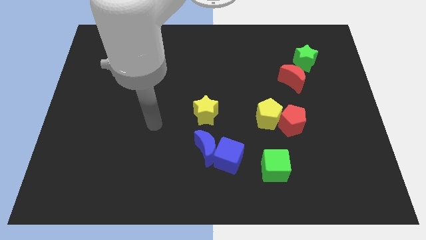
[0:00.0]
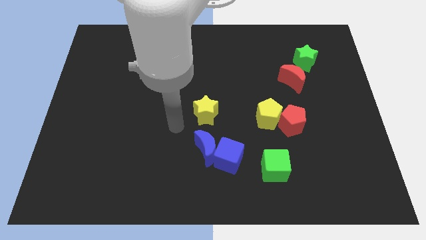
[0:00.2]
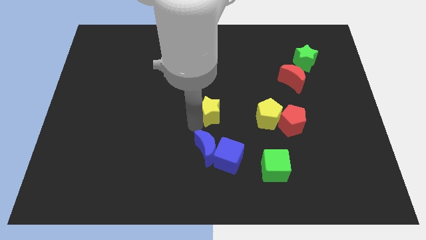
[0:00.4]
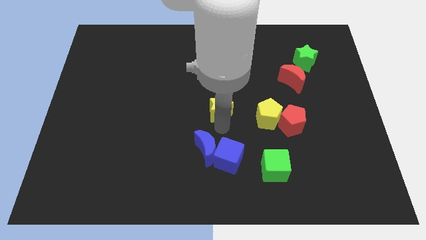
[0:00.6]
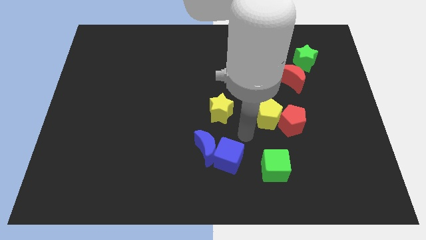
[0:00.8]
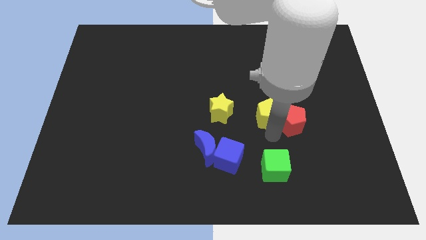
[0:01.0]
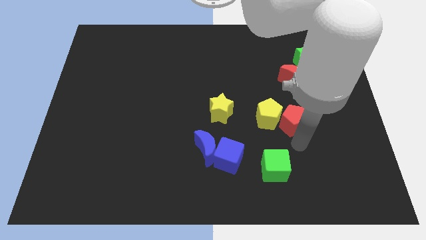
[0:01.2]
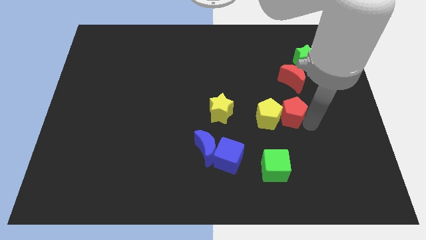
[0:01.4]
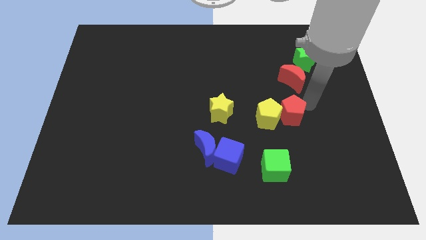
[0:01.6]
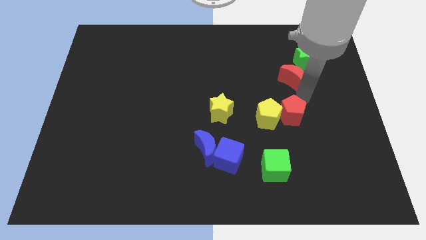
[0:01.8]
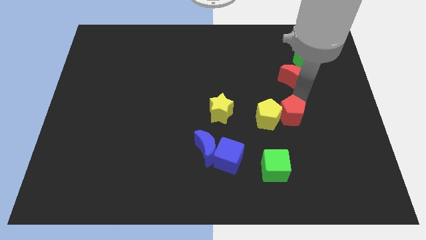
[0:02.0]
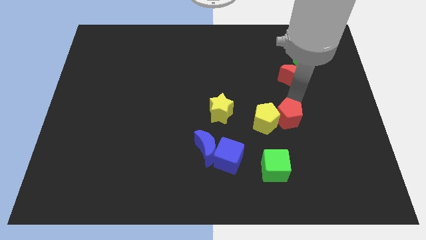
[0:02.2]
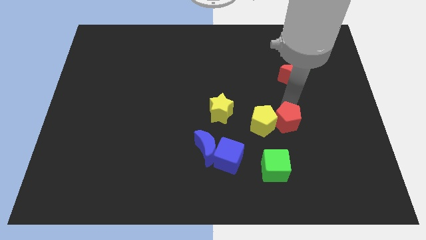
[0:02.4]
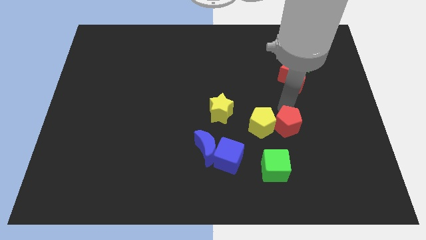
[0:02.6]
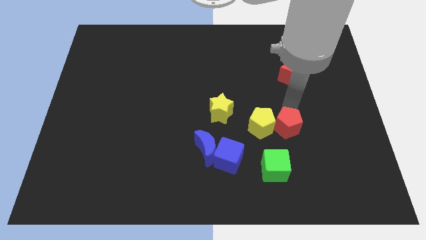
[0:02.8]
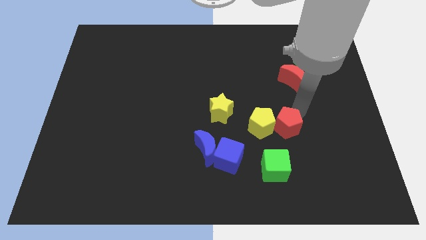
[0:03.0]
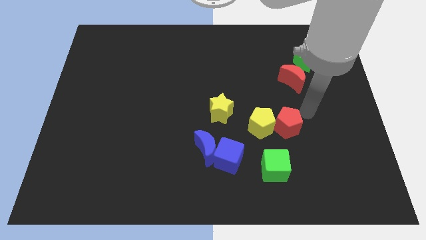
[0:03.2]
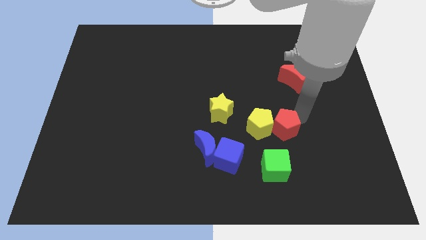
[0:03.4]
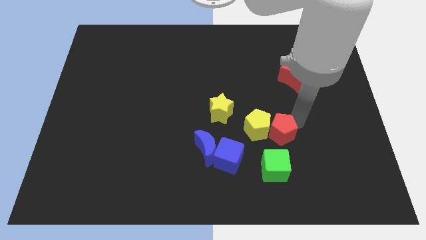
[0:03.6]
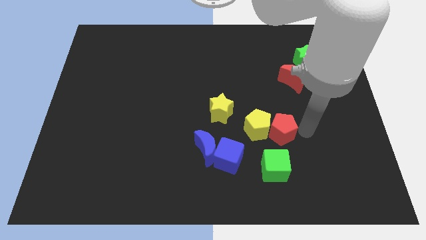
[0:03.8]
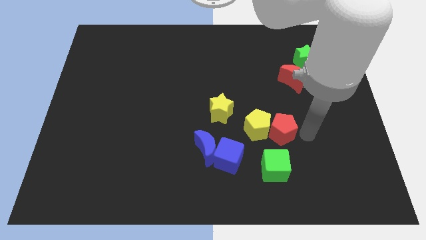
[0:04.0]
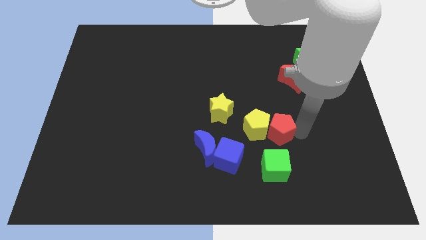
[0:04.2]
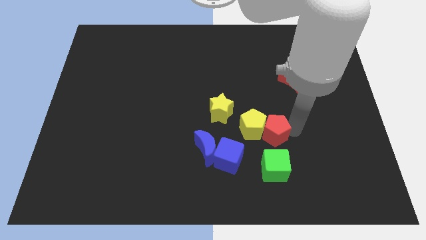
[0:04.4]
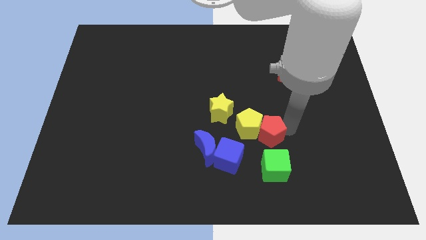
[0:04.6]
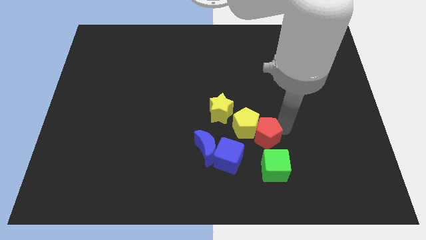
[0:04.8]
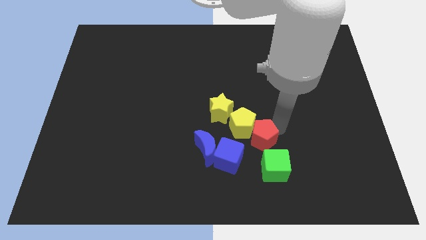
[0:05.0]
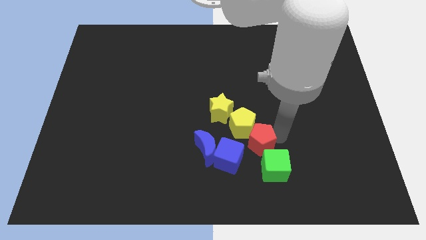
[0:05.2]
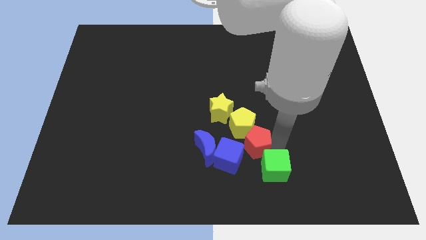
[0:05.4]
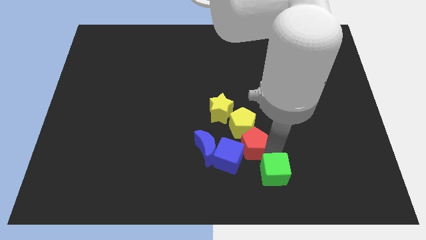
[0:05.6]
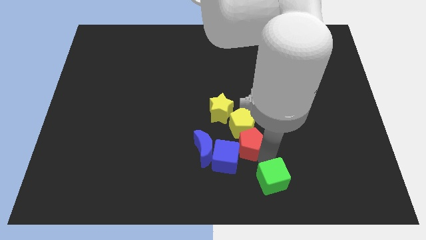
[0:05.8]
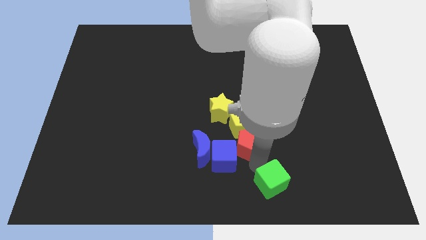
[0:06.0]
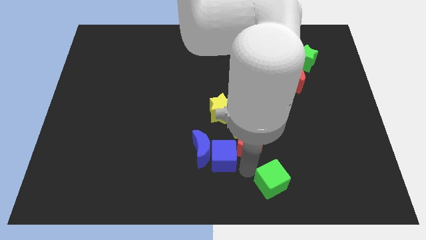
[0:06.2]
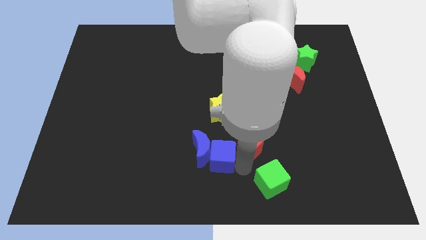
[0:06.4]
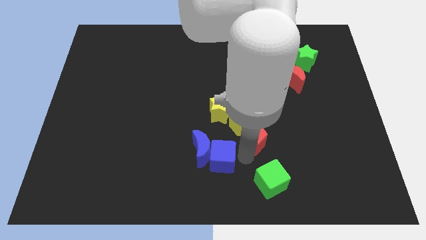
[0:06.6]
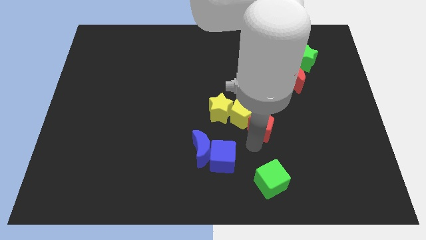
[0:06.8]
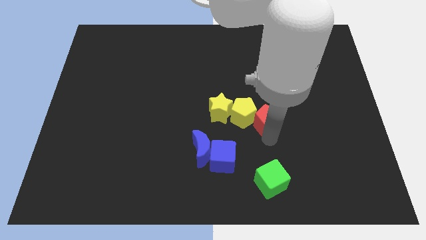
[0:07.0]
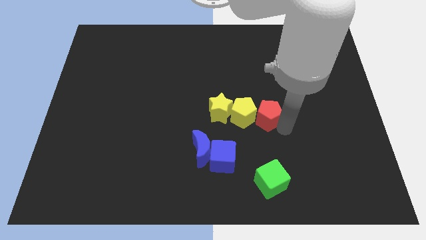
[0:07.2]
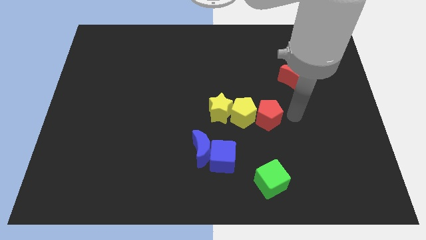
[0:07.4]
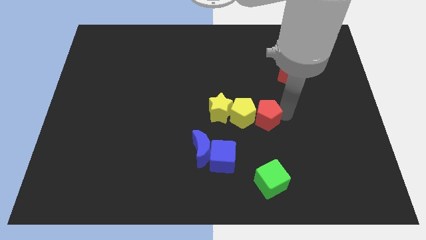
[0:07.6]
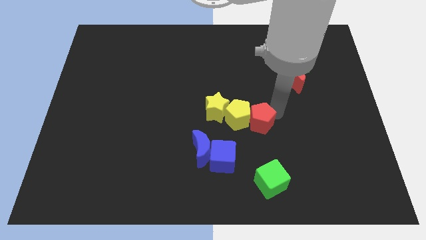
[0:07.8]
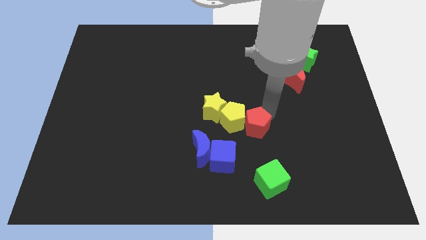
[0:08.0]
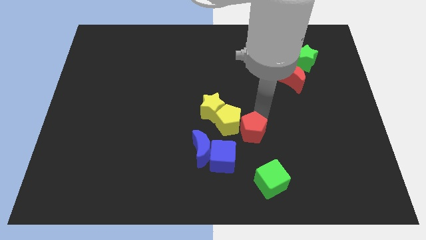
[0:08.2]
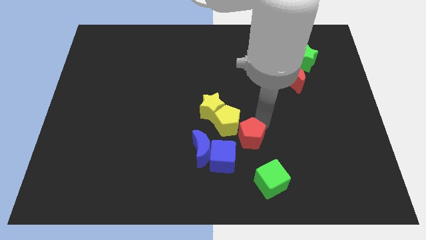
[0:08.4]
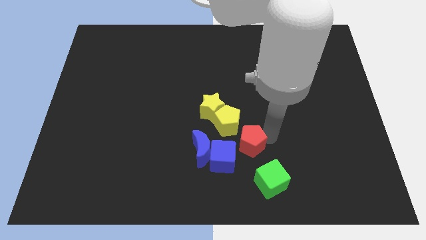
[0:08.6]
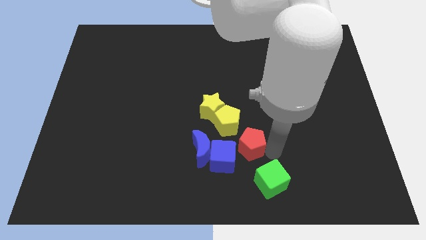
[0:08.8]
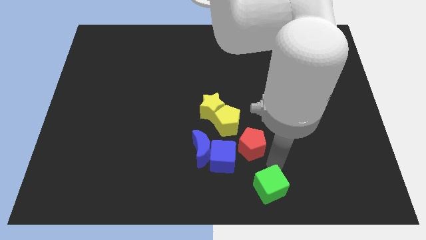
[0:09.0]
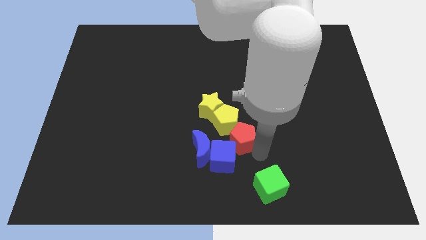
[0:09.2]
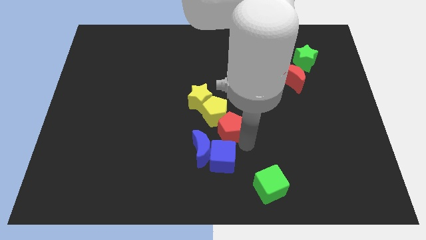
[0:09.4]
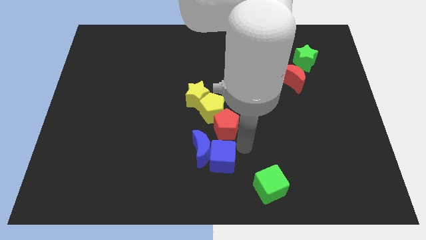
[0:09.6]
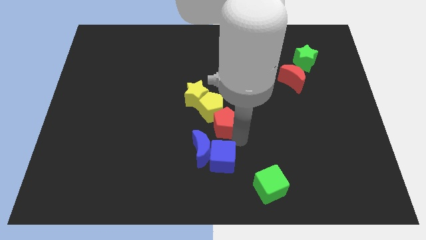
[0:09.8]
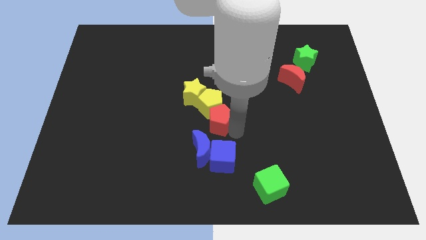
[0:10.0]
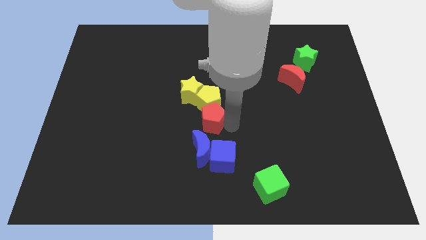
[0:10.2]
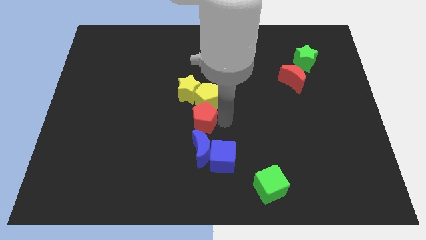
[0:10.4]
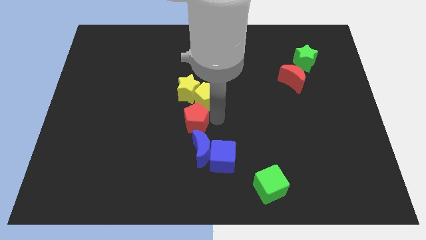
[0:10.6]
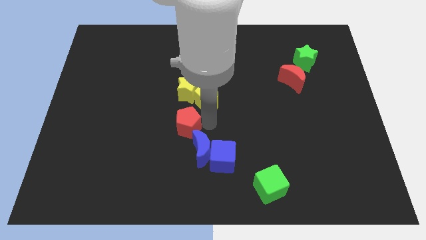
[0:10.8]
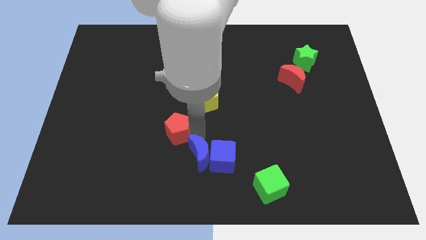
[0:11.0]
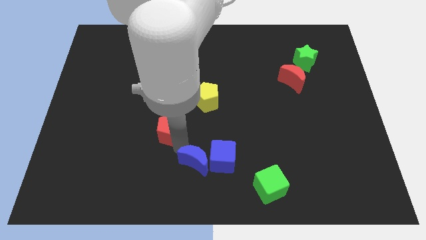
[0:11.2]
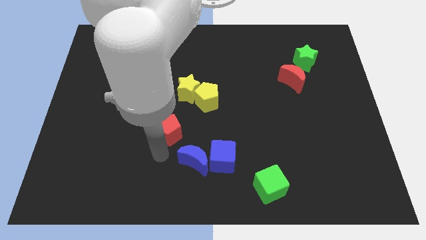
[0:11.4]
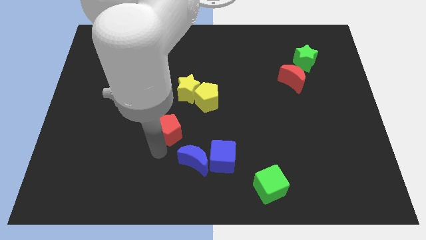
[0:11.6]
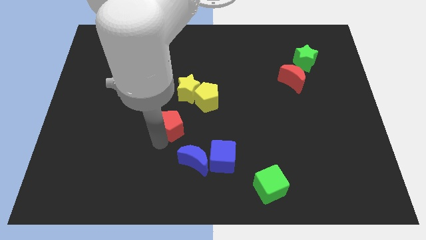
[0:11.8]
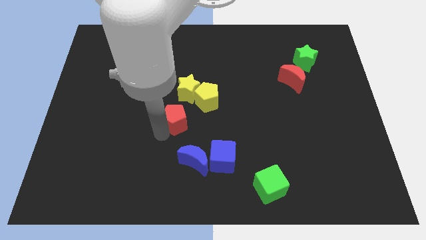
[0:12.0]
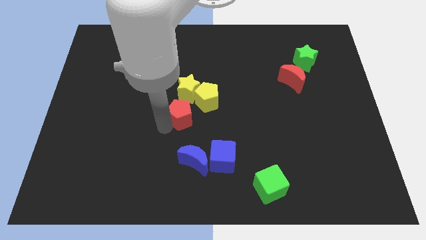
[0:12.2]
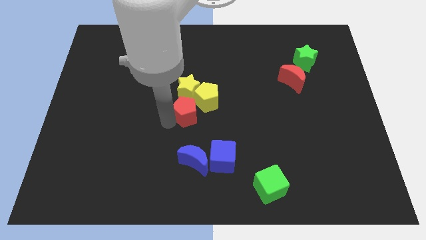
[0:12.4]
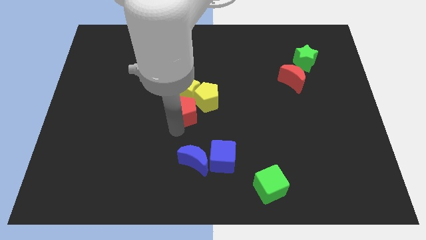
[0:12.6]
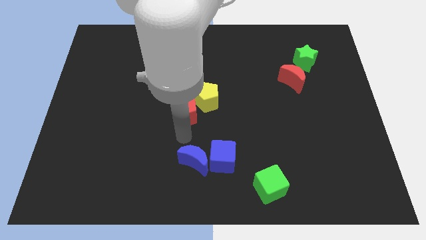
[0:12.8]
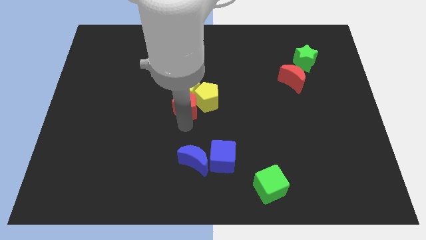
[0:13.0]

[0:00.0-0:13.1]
put the red pentagon to the yellow star

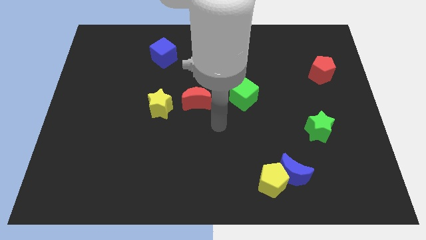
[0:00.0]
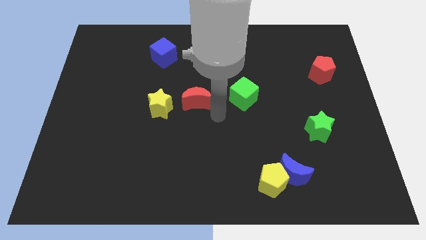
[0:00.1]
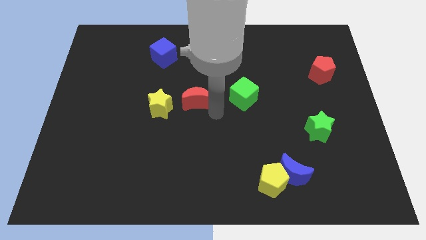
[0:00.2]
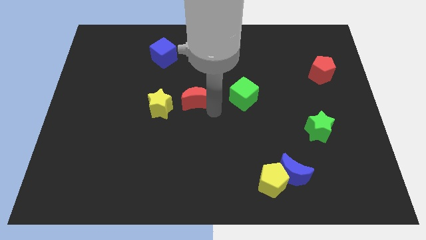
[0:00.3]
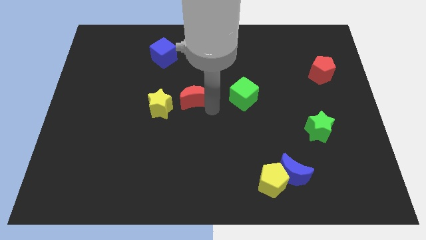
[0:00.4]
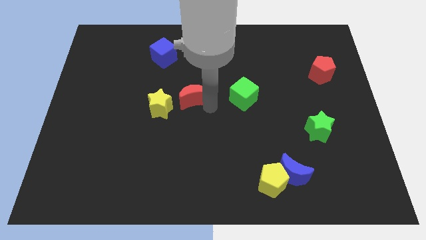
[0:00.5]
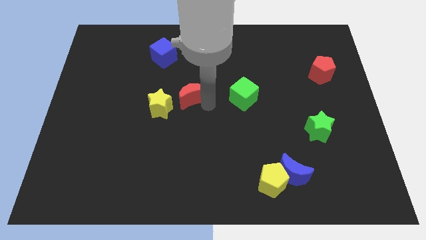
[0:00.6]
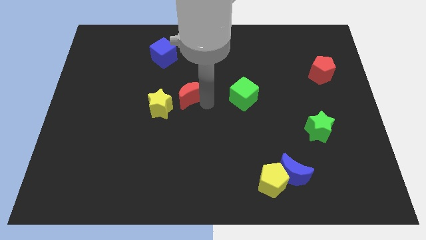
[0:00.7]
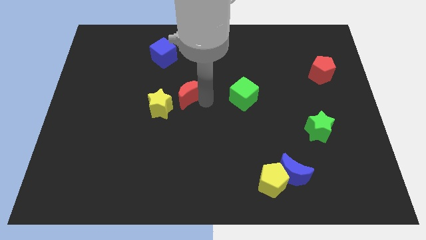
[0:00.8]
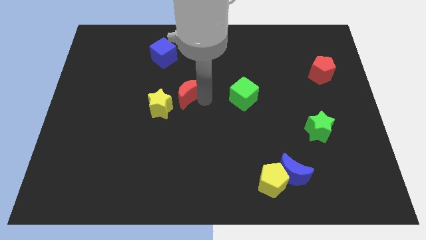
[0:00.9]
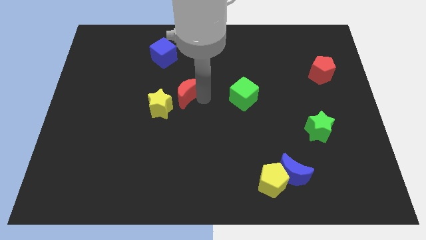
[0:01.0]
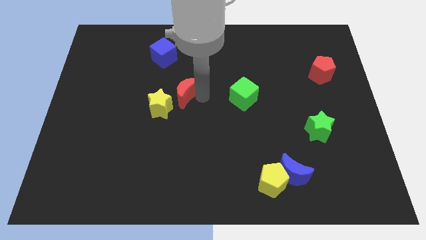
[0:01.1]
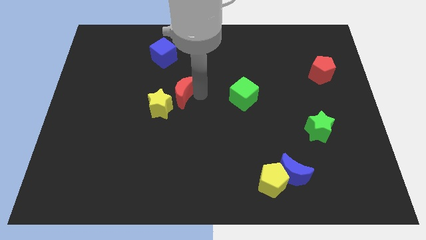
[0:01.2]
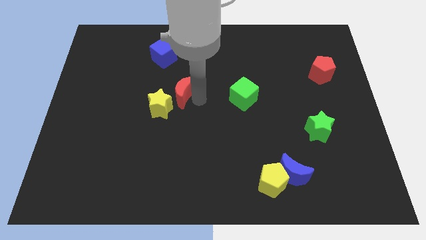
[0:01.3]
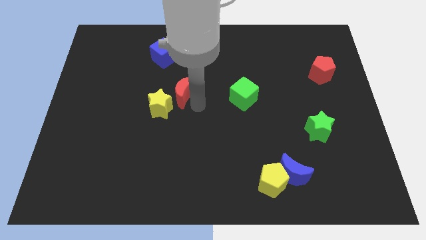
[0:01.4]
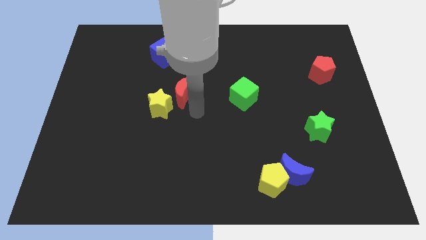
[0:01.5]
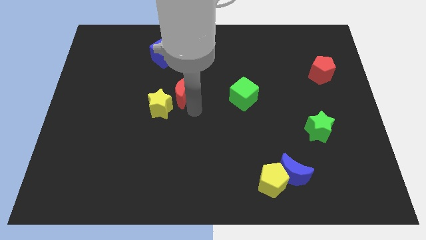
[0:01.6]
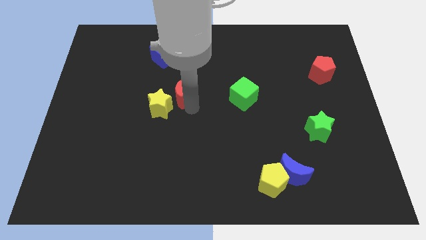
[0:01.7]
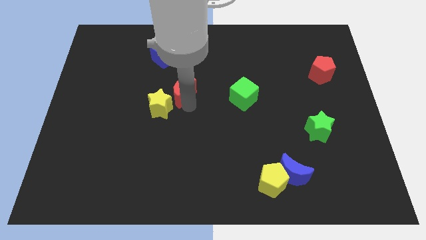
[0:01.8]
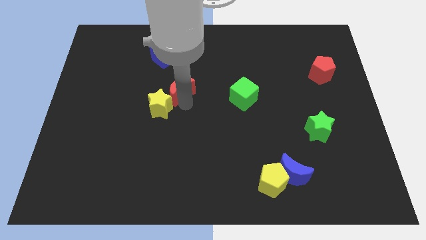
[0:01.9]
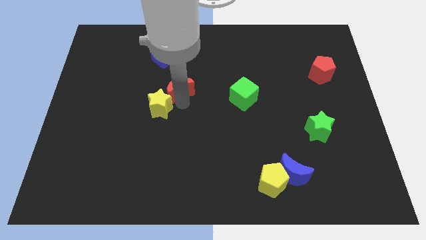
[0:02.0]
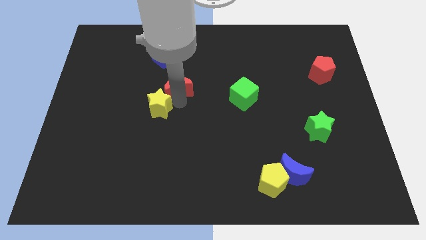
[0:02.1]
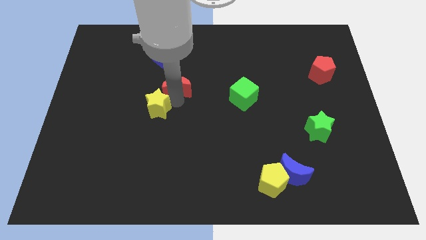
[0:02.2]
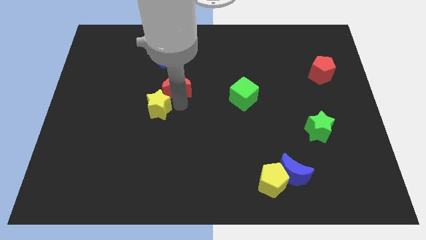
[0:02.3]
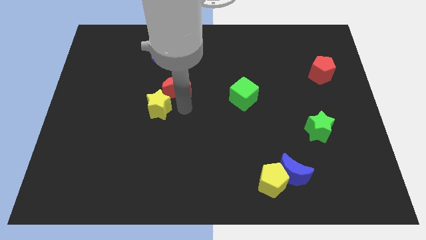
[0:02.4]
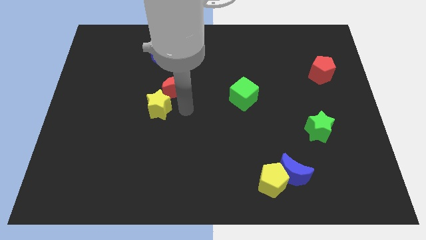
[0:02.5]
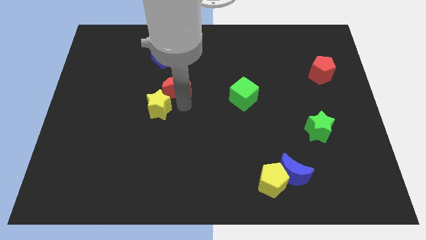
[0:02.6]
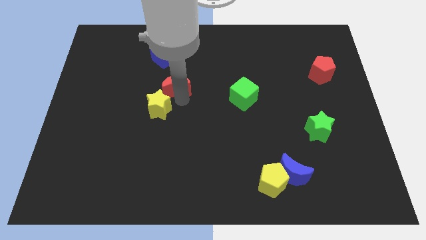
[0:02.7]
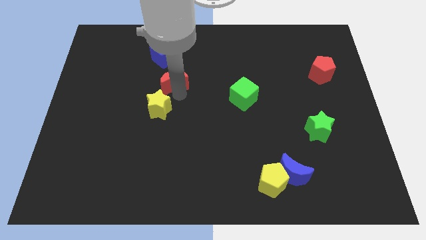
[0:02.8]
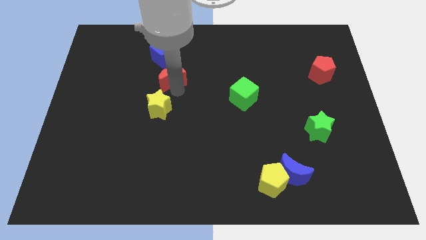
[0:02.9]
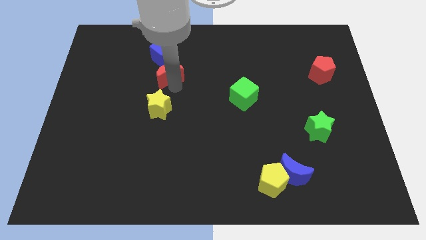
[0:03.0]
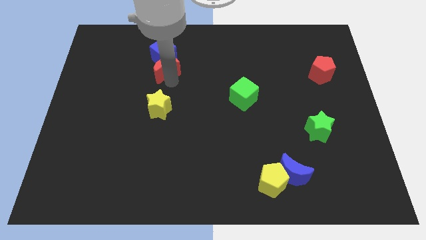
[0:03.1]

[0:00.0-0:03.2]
put the red moon close to the blue cube
